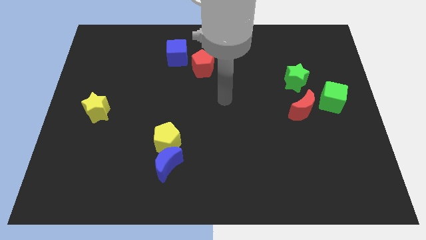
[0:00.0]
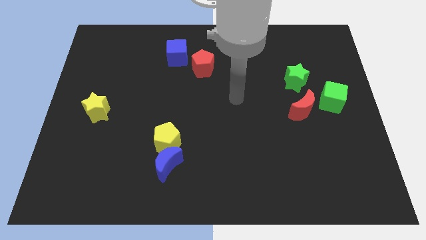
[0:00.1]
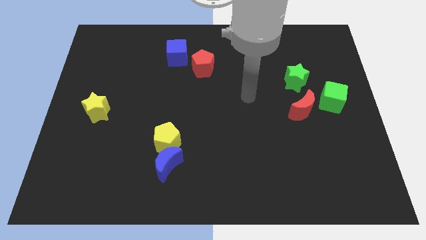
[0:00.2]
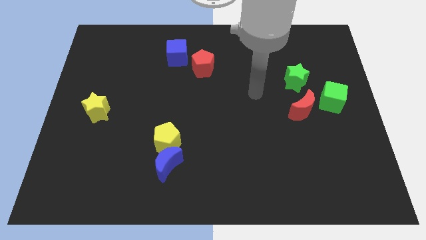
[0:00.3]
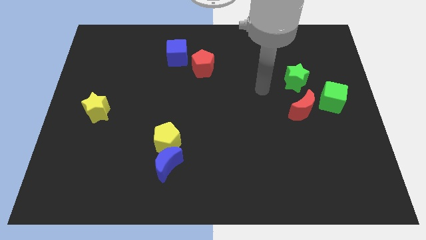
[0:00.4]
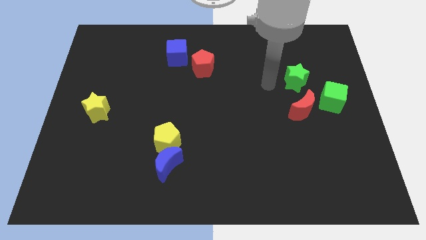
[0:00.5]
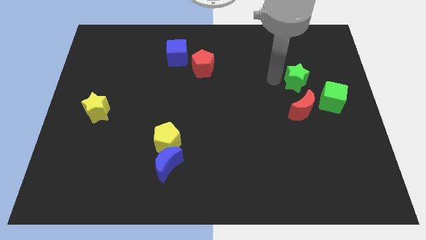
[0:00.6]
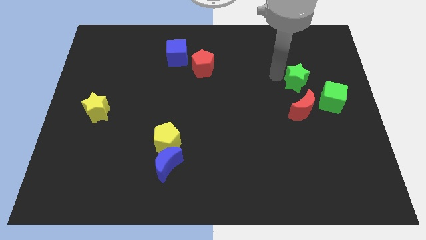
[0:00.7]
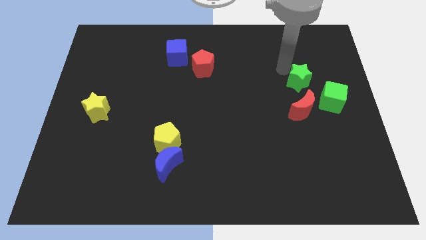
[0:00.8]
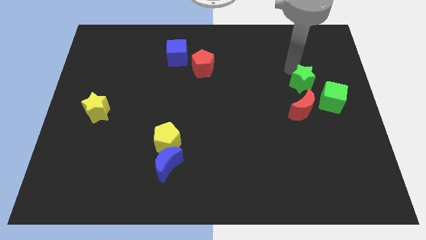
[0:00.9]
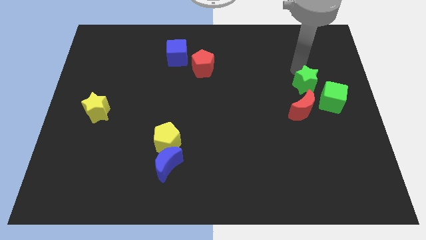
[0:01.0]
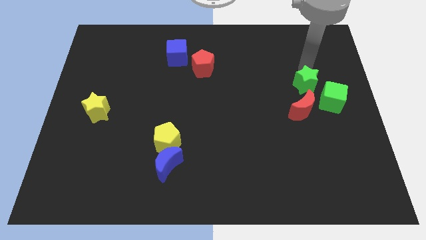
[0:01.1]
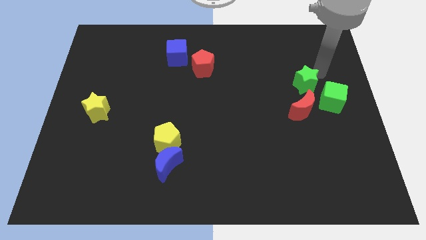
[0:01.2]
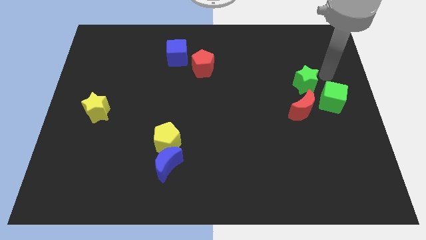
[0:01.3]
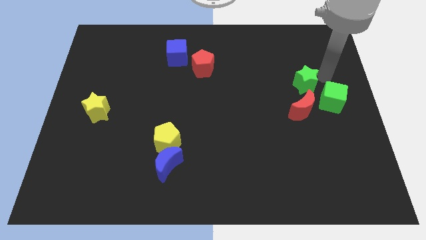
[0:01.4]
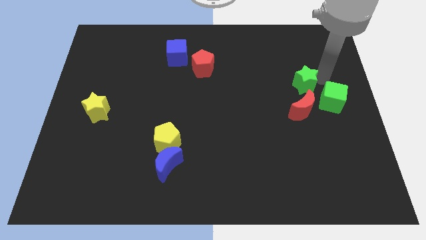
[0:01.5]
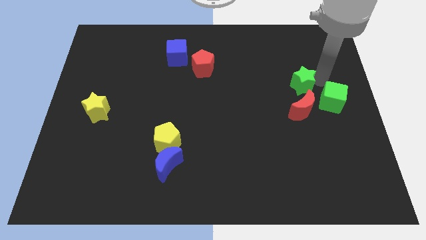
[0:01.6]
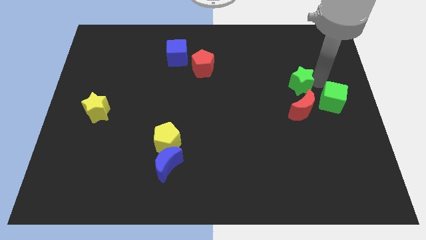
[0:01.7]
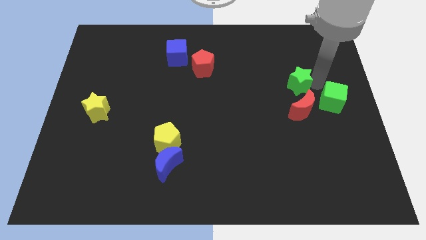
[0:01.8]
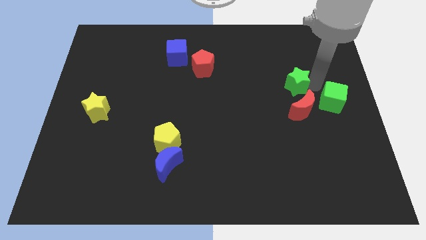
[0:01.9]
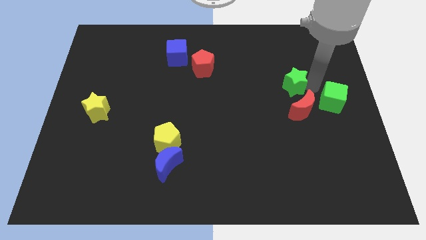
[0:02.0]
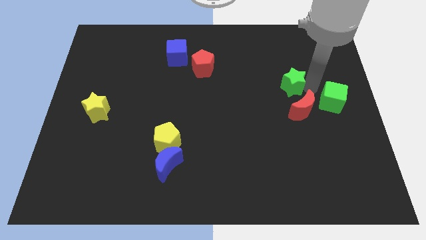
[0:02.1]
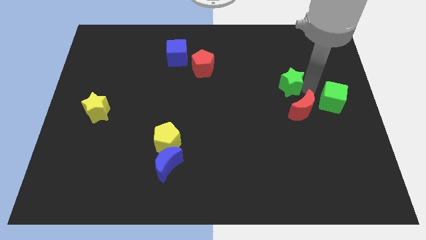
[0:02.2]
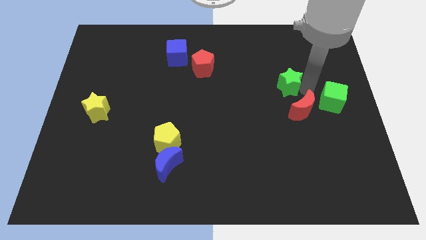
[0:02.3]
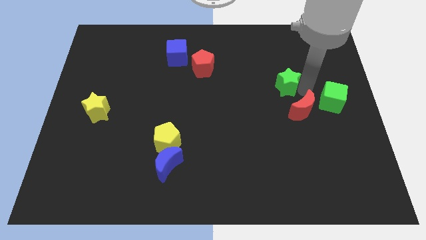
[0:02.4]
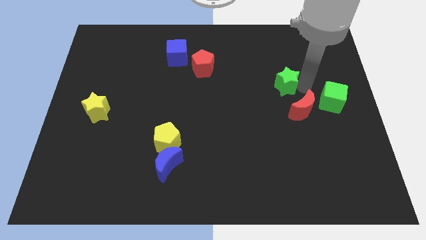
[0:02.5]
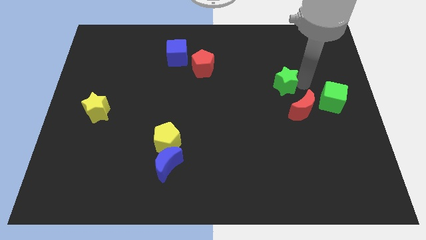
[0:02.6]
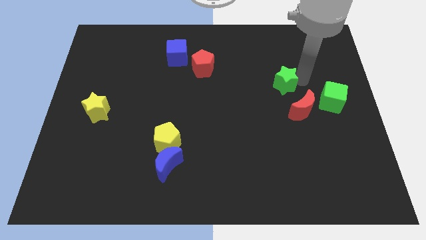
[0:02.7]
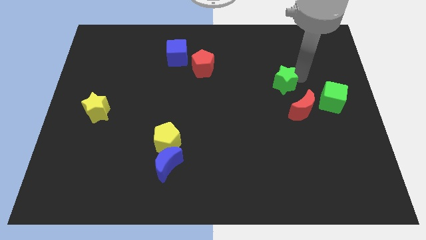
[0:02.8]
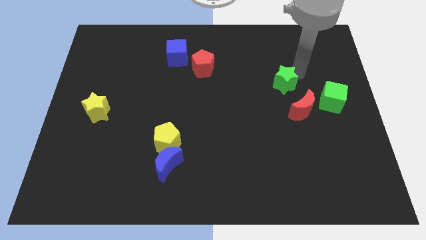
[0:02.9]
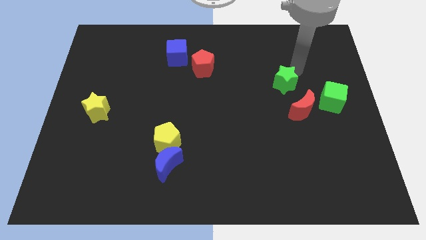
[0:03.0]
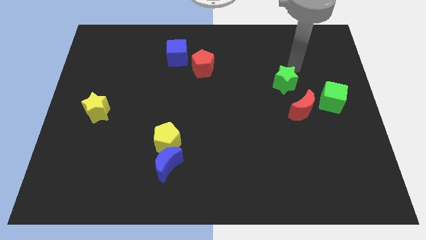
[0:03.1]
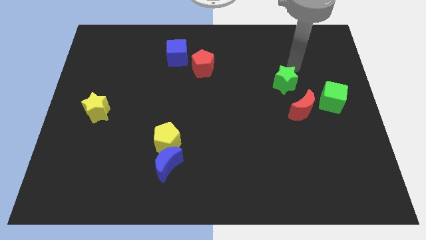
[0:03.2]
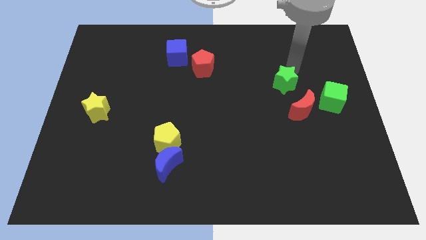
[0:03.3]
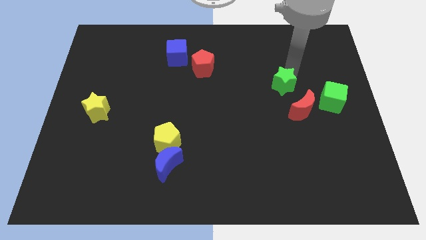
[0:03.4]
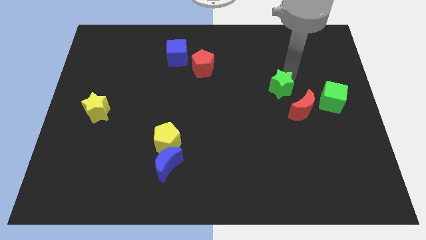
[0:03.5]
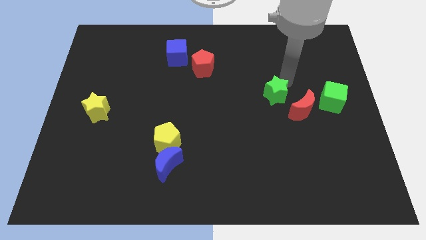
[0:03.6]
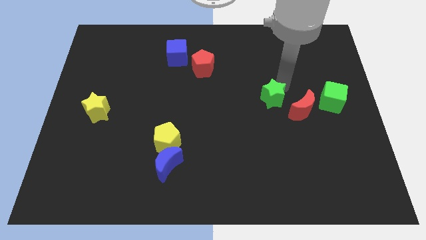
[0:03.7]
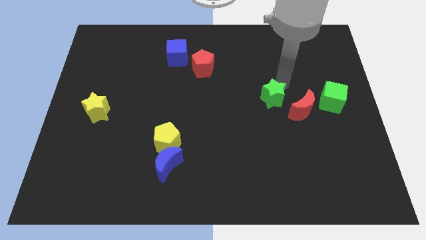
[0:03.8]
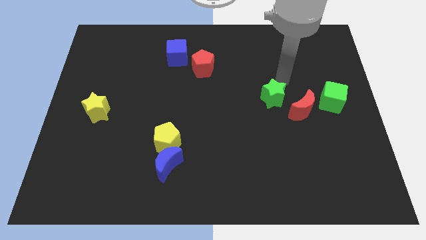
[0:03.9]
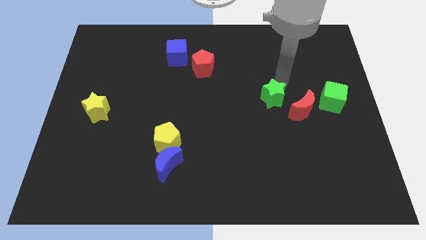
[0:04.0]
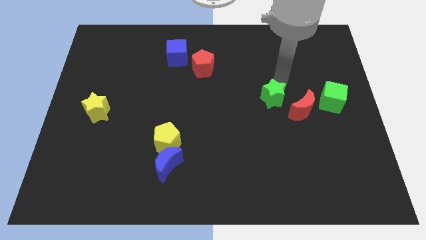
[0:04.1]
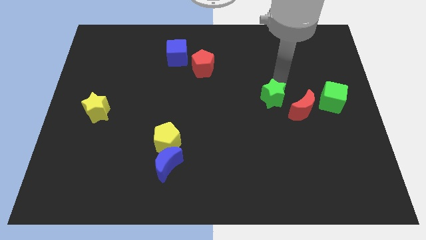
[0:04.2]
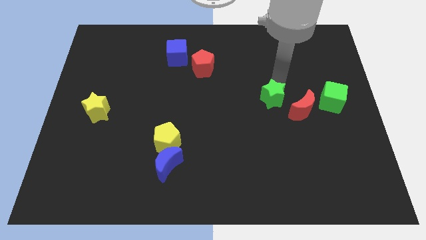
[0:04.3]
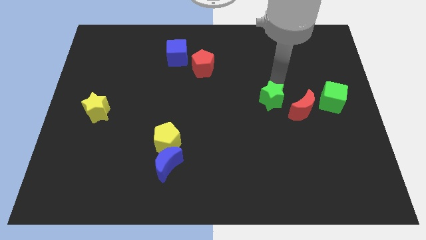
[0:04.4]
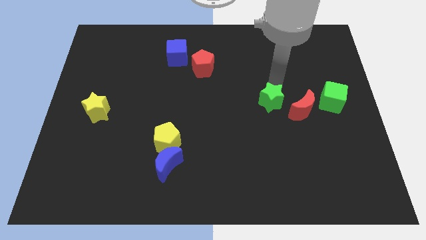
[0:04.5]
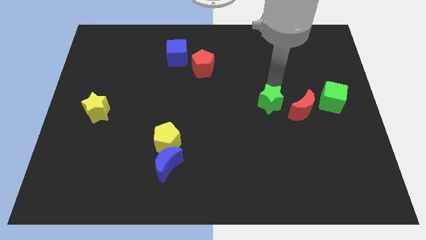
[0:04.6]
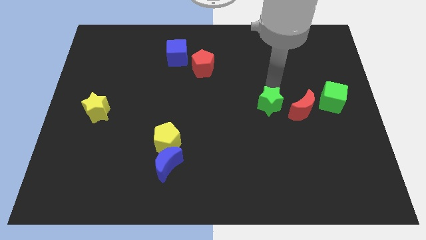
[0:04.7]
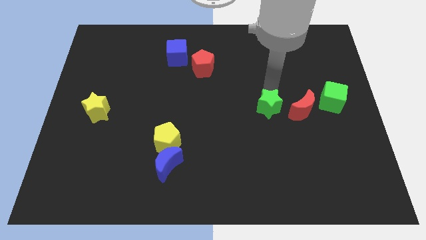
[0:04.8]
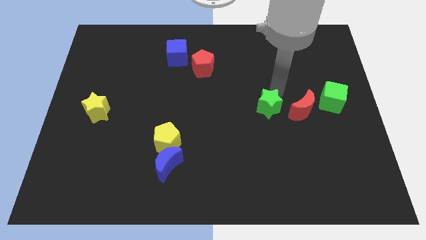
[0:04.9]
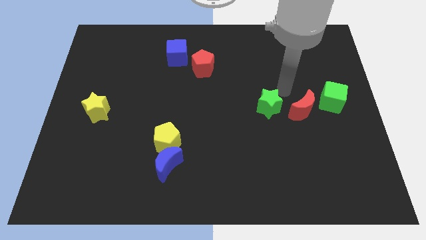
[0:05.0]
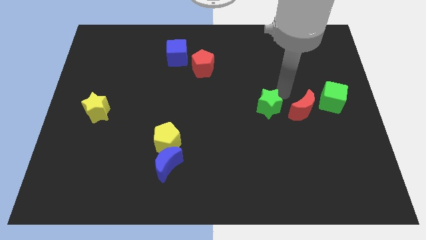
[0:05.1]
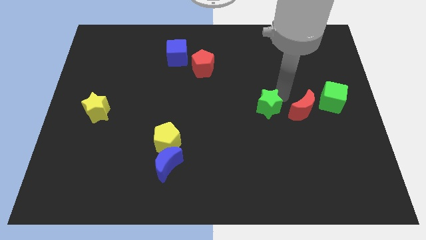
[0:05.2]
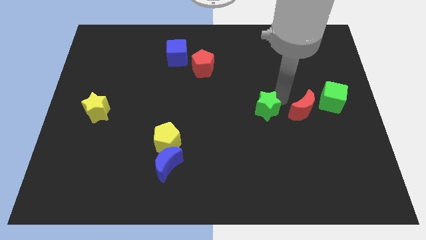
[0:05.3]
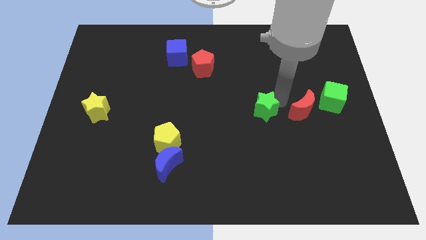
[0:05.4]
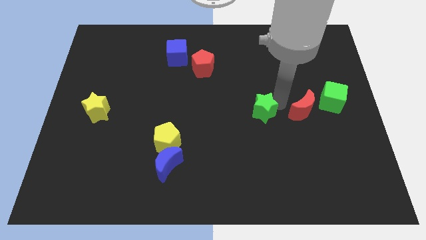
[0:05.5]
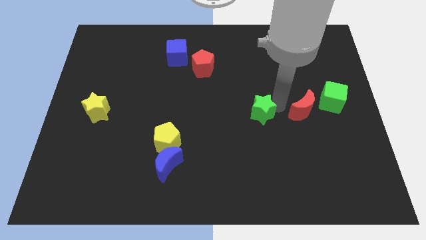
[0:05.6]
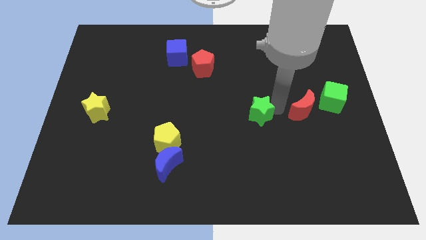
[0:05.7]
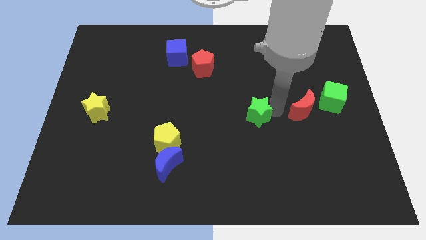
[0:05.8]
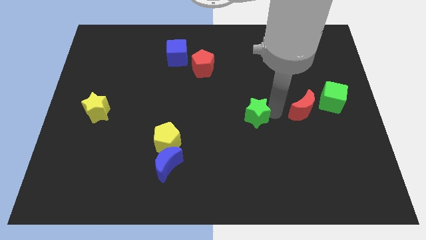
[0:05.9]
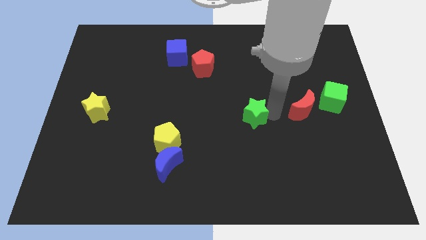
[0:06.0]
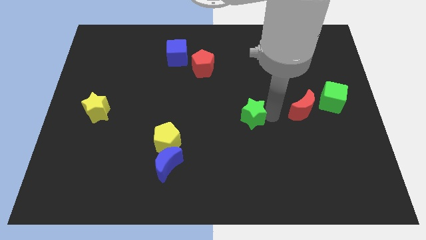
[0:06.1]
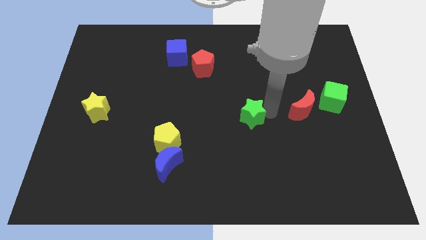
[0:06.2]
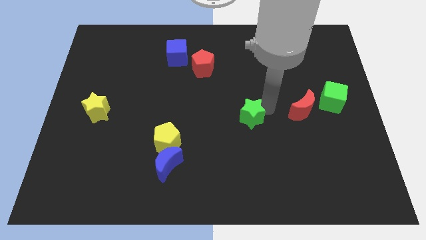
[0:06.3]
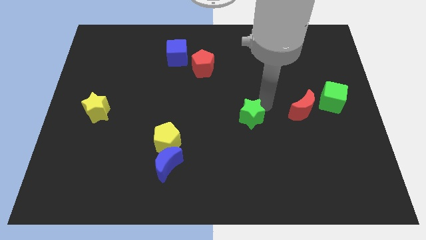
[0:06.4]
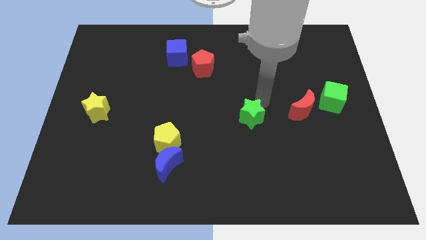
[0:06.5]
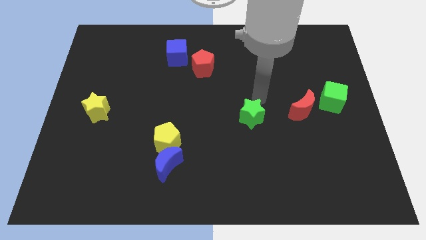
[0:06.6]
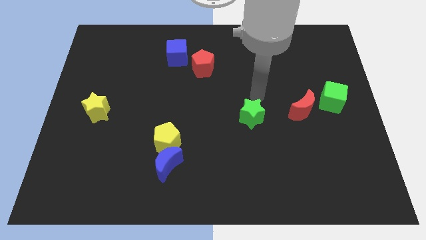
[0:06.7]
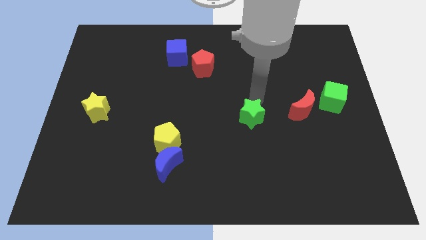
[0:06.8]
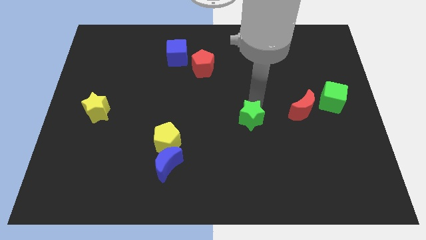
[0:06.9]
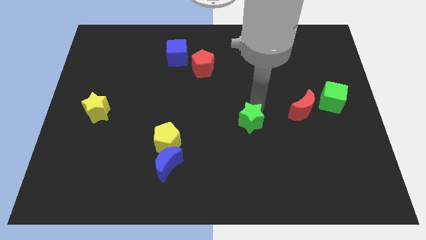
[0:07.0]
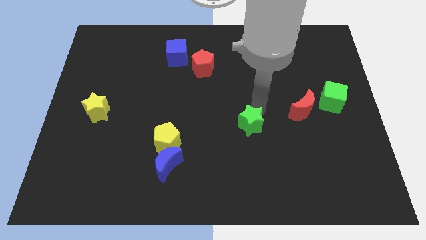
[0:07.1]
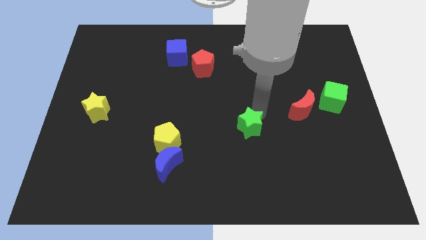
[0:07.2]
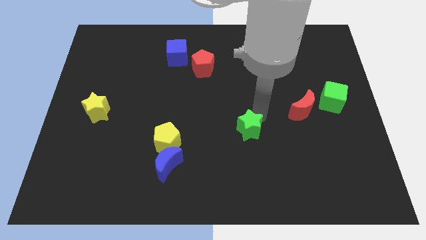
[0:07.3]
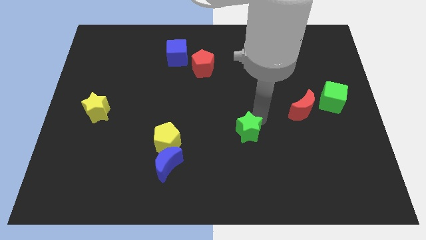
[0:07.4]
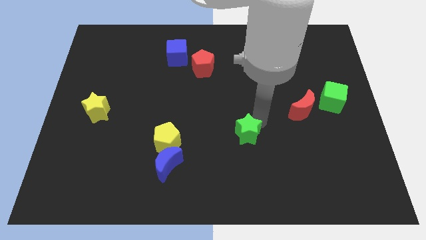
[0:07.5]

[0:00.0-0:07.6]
push the green star downwards and left

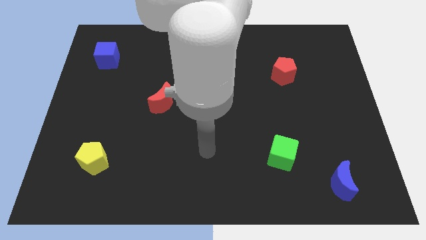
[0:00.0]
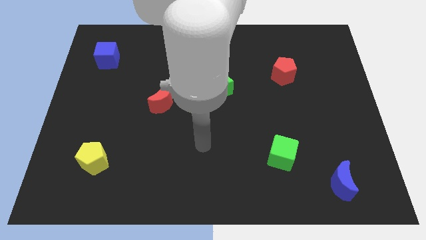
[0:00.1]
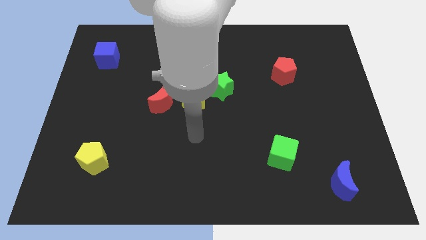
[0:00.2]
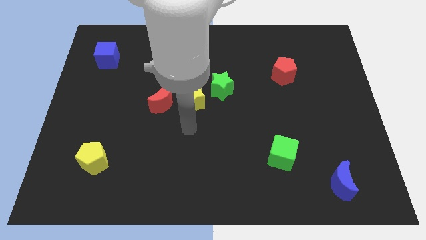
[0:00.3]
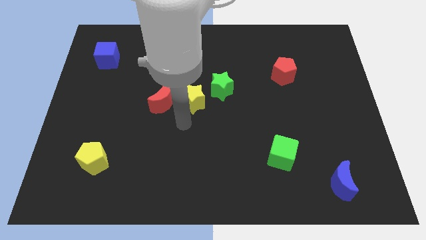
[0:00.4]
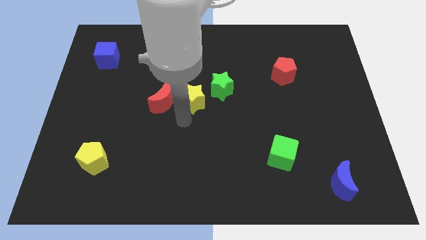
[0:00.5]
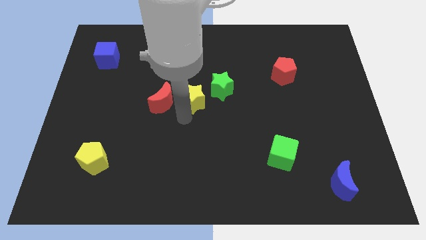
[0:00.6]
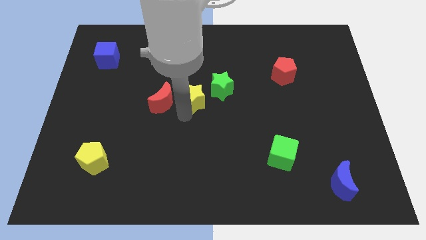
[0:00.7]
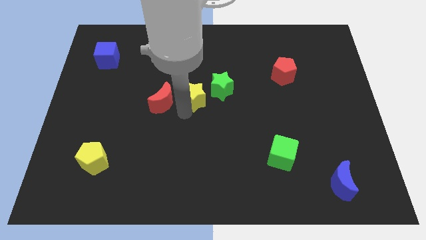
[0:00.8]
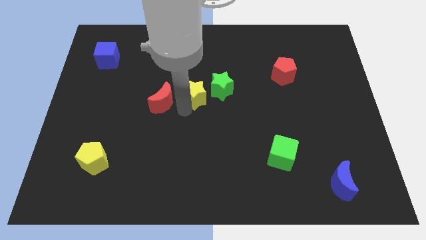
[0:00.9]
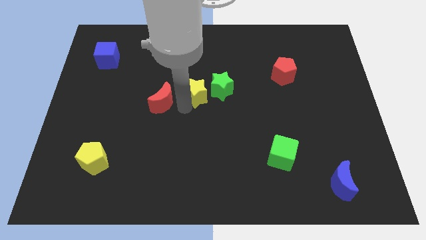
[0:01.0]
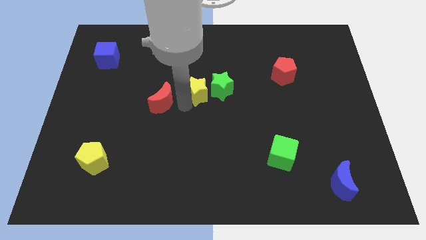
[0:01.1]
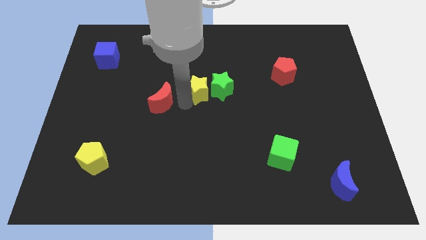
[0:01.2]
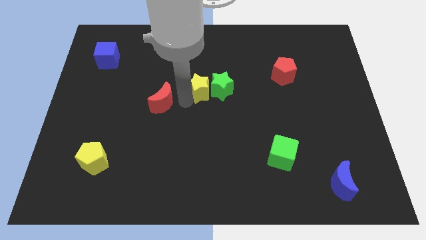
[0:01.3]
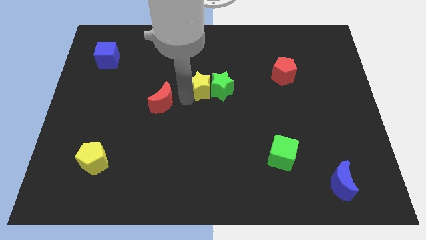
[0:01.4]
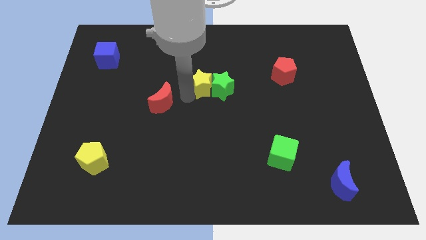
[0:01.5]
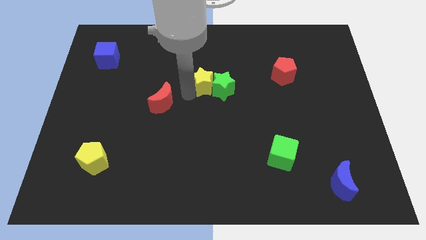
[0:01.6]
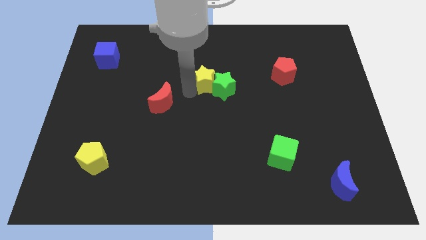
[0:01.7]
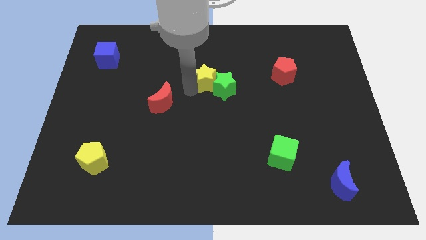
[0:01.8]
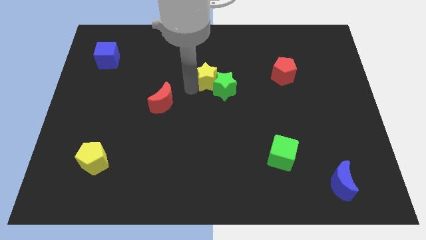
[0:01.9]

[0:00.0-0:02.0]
push the yellow star a little bit up and to the right diagonally
